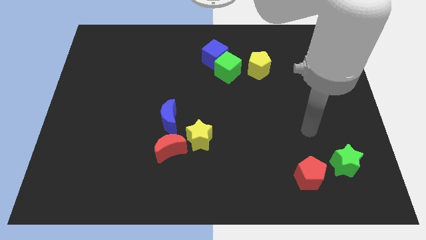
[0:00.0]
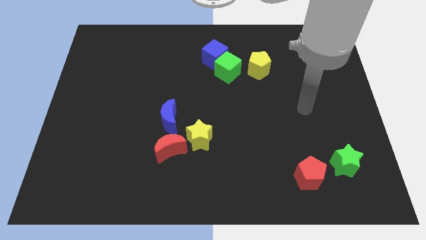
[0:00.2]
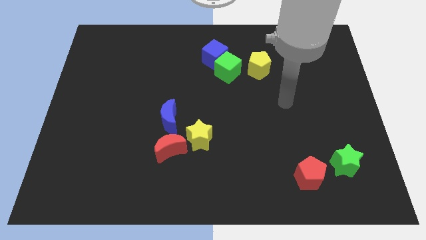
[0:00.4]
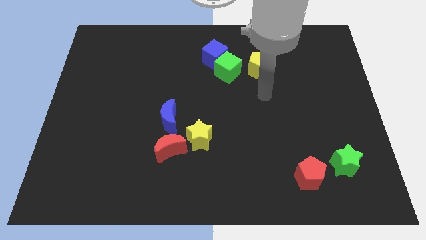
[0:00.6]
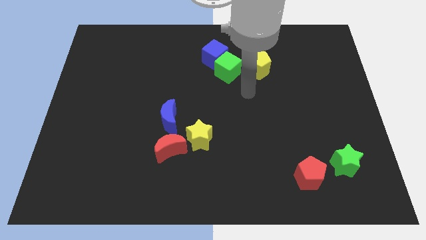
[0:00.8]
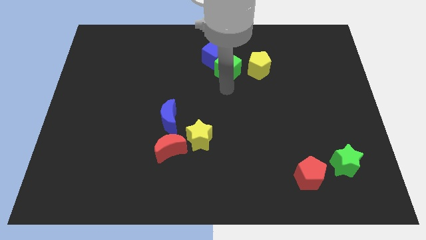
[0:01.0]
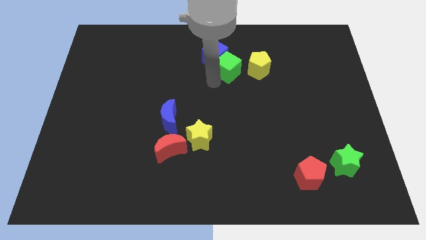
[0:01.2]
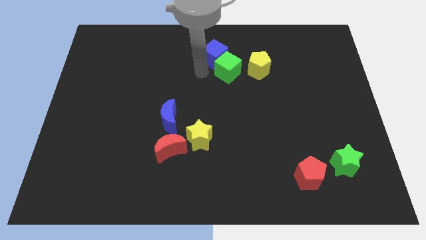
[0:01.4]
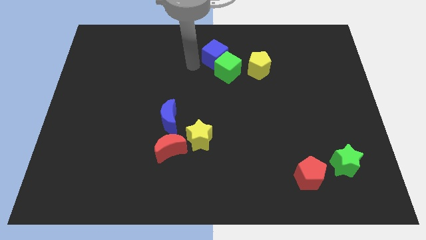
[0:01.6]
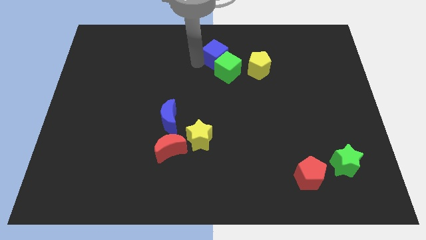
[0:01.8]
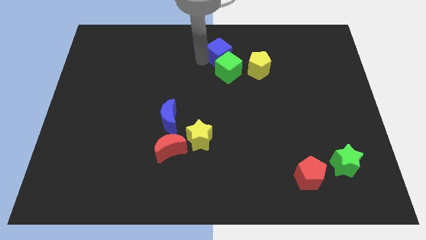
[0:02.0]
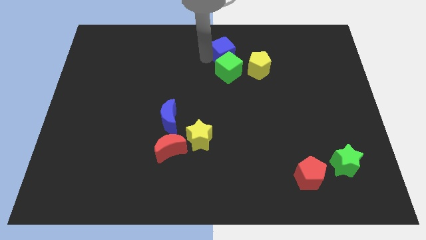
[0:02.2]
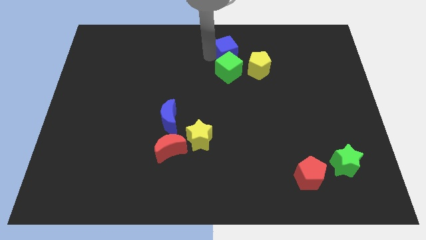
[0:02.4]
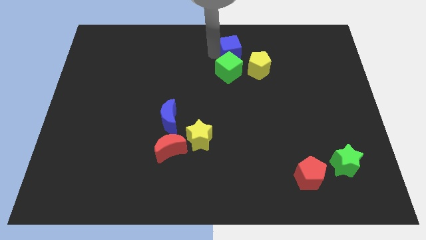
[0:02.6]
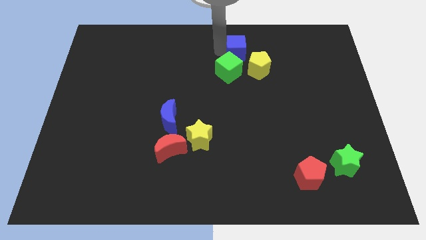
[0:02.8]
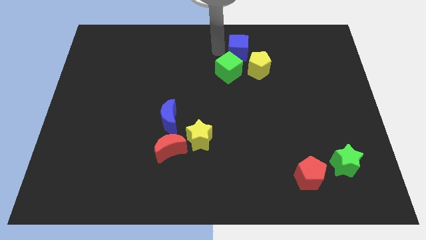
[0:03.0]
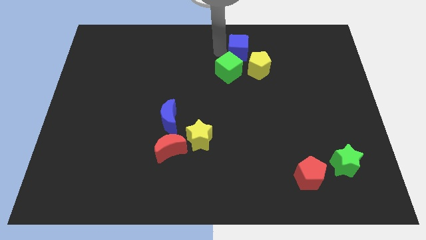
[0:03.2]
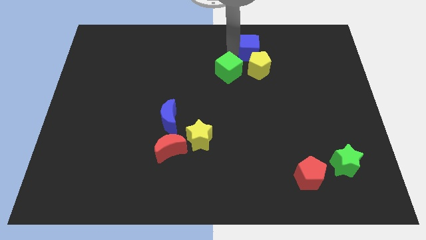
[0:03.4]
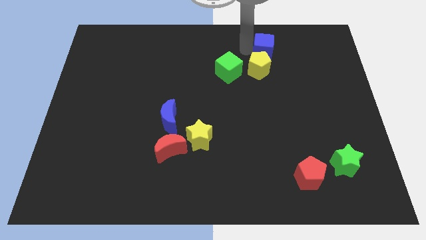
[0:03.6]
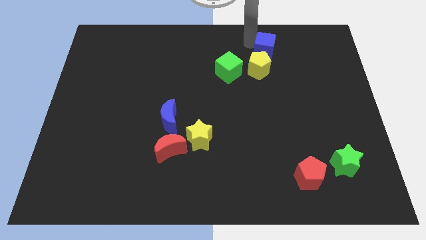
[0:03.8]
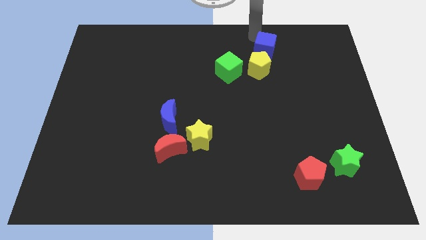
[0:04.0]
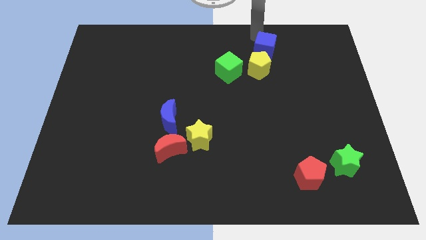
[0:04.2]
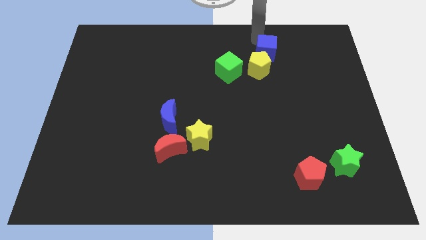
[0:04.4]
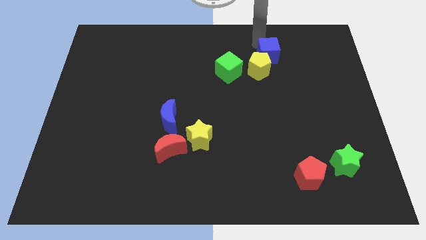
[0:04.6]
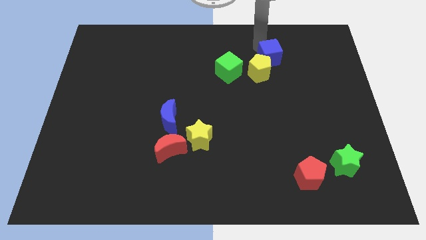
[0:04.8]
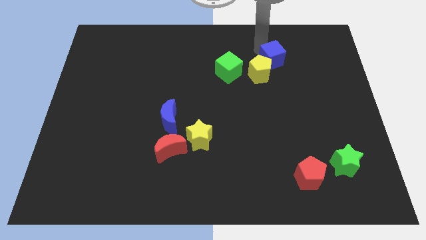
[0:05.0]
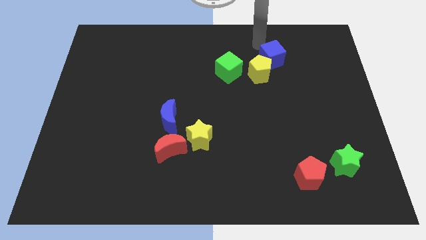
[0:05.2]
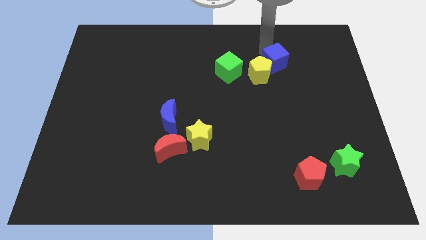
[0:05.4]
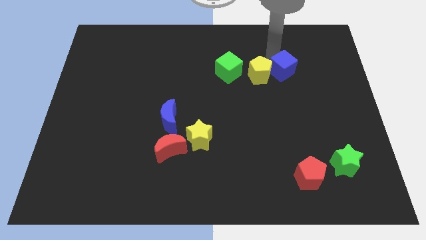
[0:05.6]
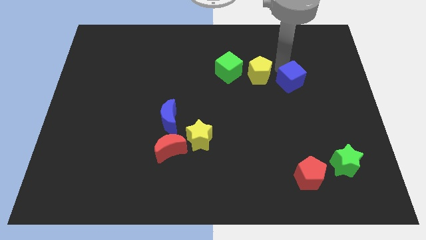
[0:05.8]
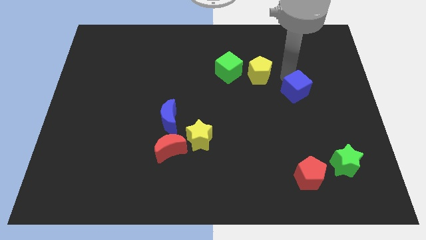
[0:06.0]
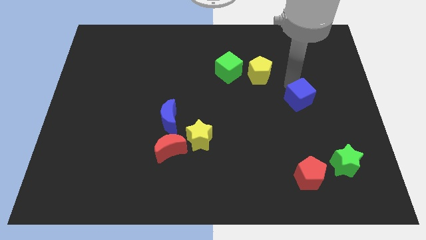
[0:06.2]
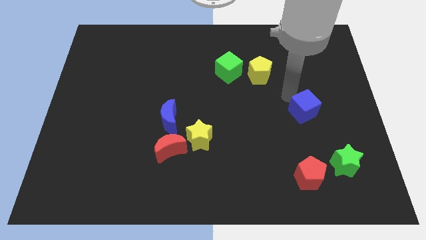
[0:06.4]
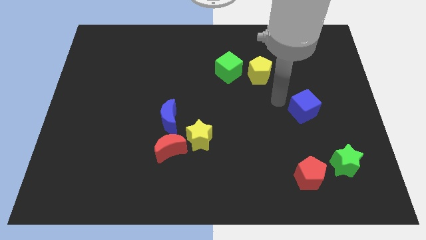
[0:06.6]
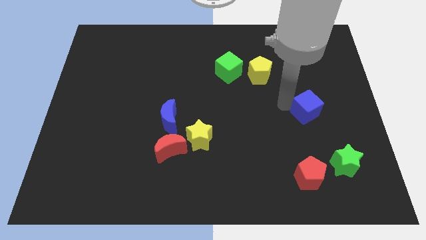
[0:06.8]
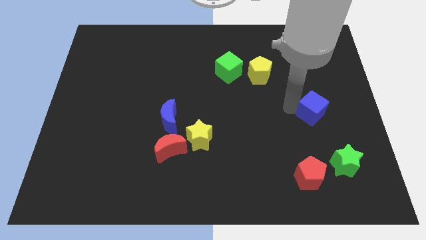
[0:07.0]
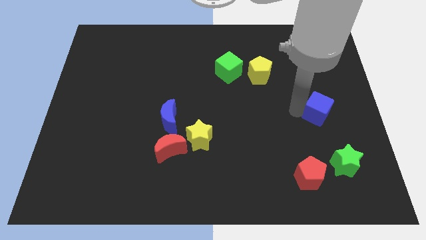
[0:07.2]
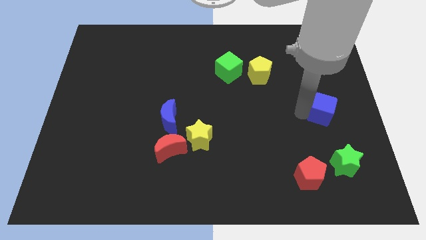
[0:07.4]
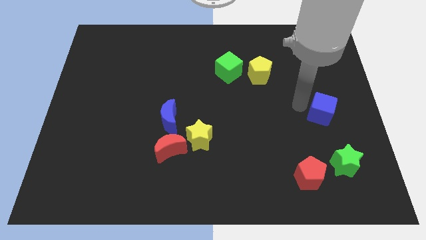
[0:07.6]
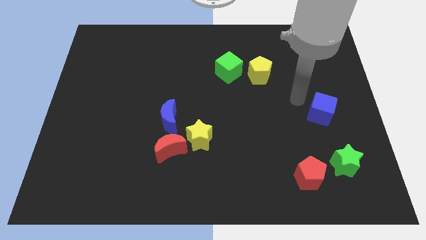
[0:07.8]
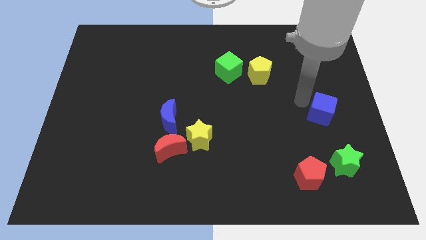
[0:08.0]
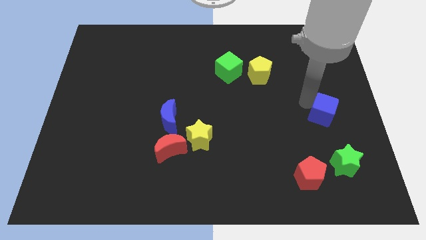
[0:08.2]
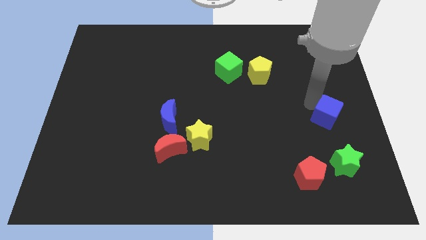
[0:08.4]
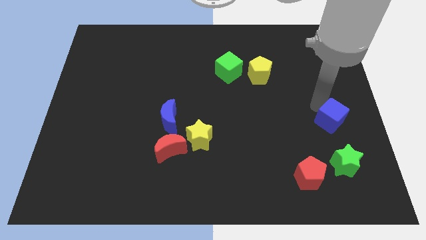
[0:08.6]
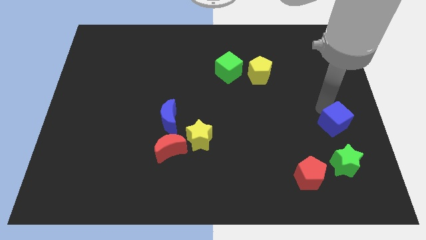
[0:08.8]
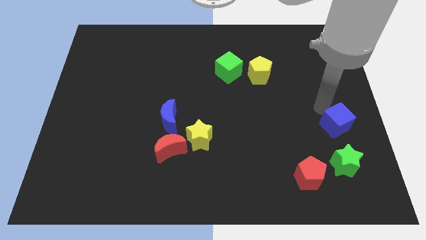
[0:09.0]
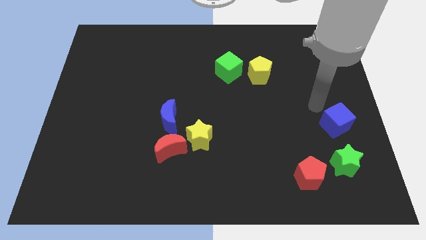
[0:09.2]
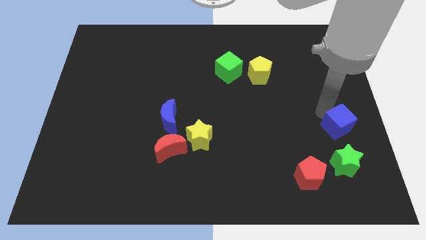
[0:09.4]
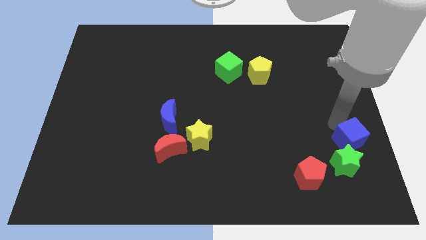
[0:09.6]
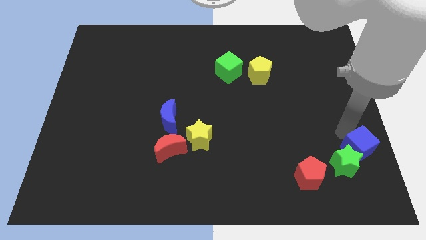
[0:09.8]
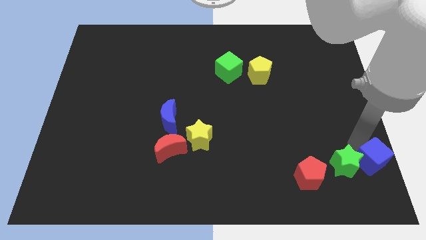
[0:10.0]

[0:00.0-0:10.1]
slide the blue cube to the lower right corner

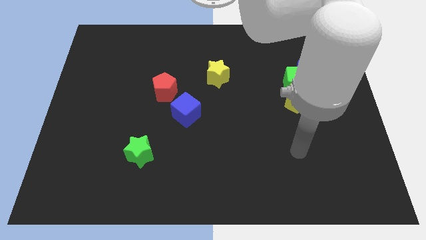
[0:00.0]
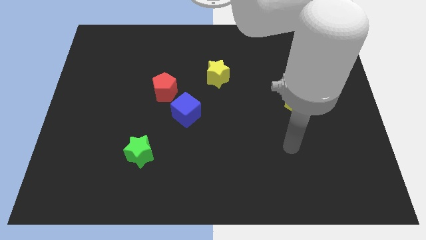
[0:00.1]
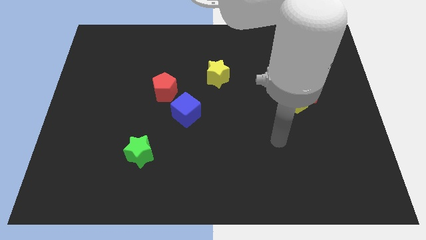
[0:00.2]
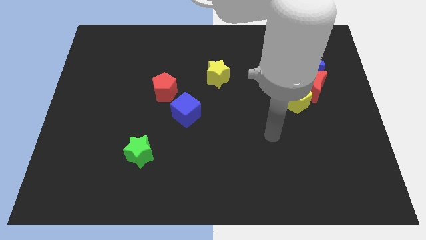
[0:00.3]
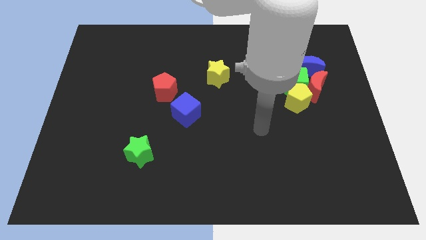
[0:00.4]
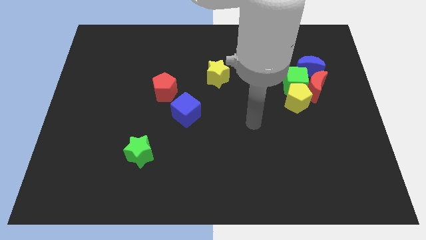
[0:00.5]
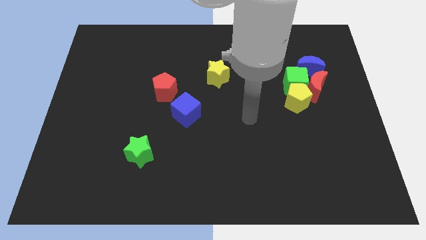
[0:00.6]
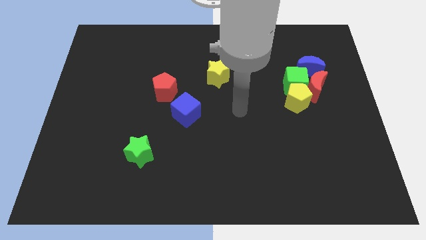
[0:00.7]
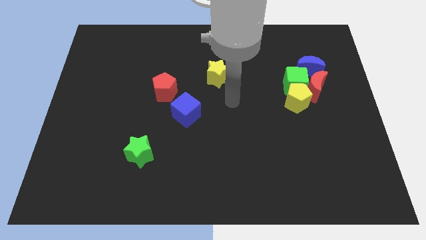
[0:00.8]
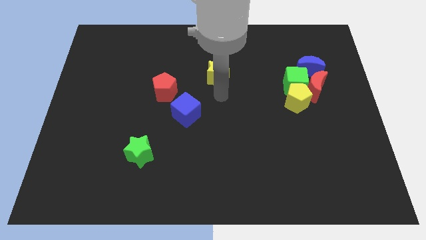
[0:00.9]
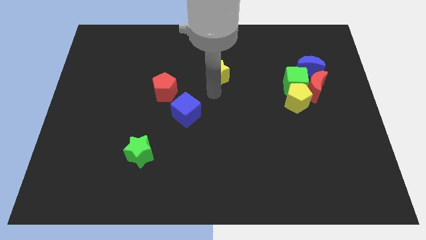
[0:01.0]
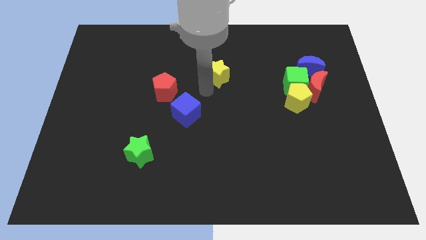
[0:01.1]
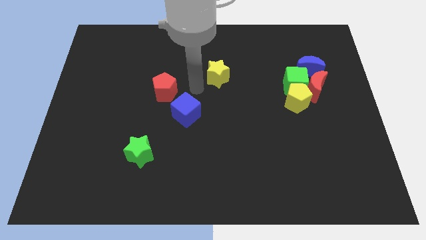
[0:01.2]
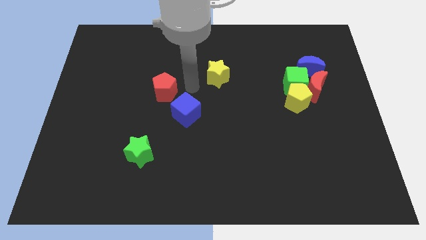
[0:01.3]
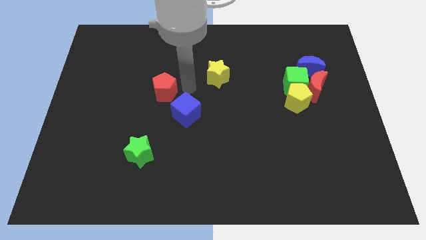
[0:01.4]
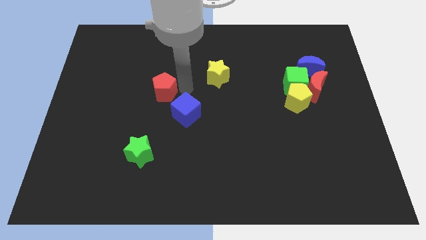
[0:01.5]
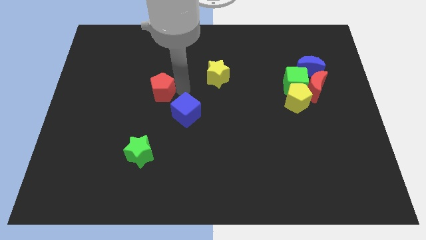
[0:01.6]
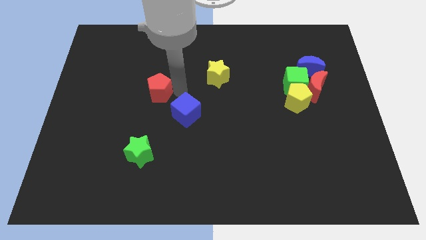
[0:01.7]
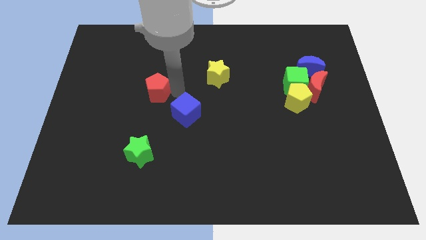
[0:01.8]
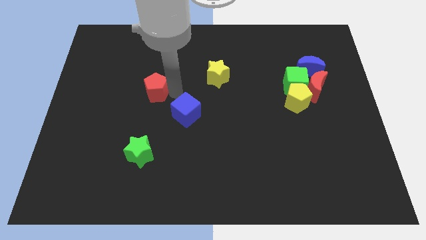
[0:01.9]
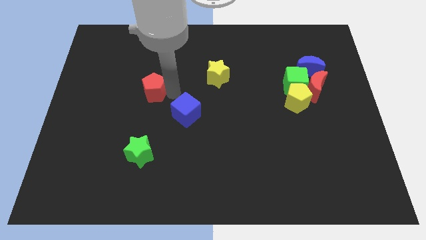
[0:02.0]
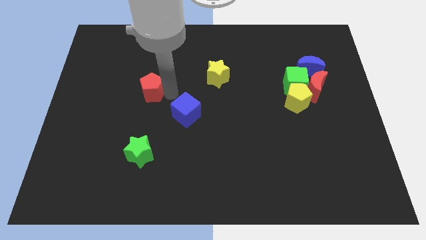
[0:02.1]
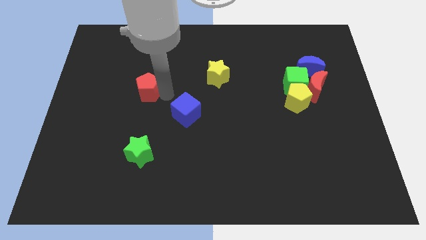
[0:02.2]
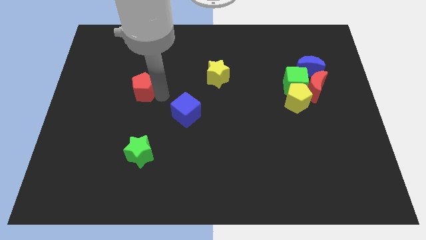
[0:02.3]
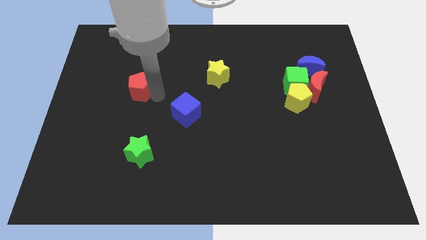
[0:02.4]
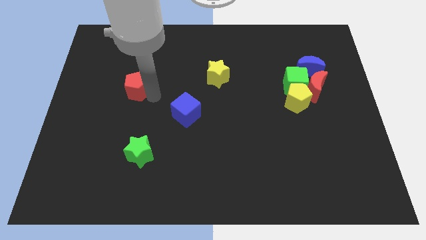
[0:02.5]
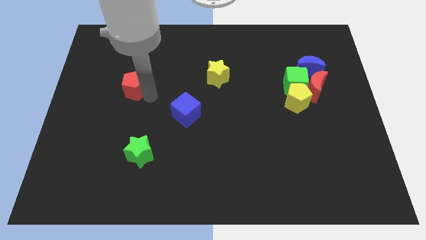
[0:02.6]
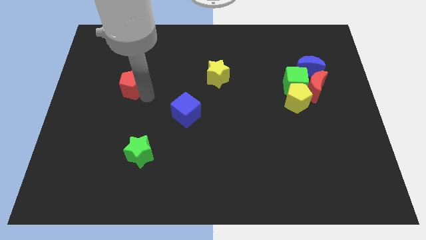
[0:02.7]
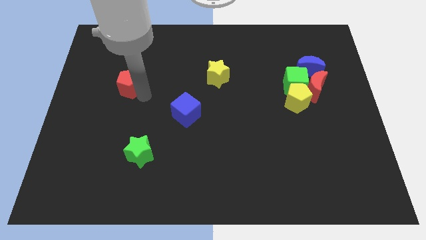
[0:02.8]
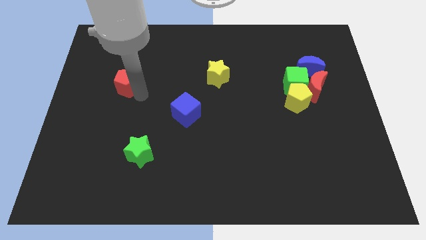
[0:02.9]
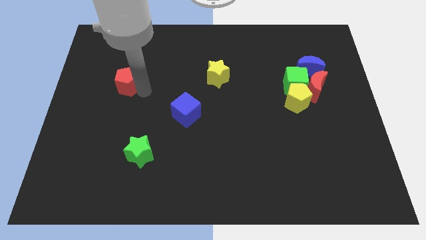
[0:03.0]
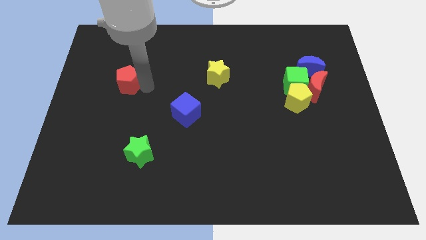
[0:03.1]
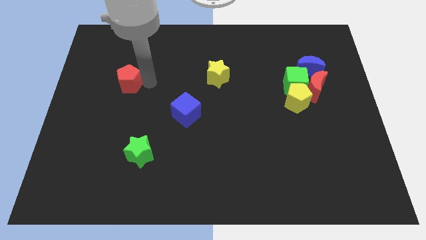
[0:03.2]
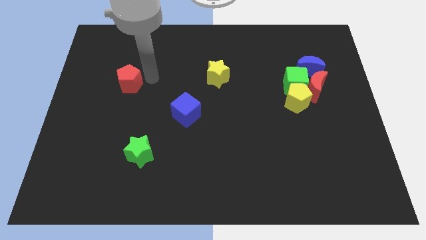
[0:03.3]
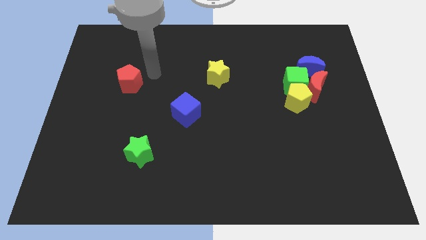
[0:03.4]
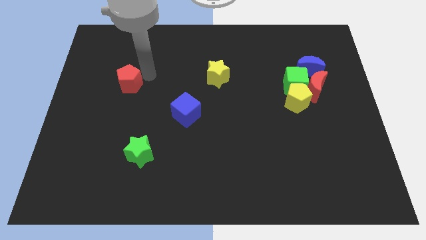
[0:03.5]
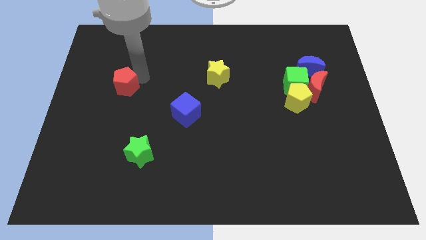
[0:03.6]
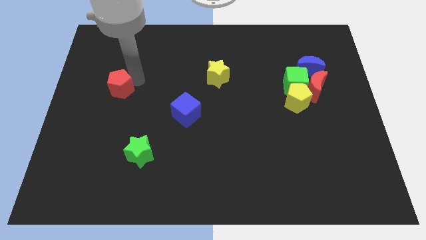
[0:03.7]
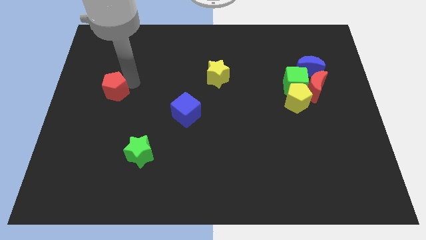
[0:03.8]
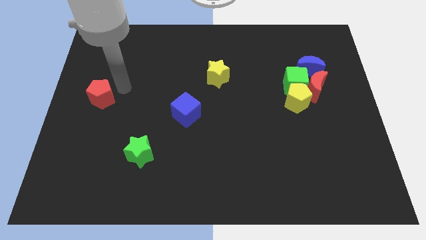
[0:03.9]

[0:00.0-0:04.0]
move the red pentagon to the left side
